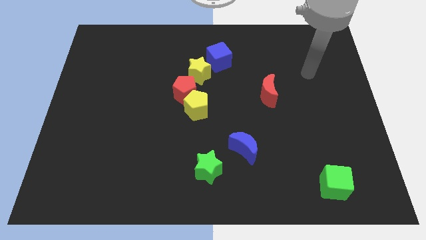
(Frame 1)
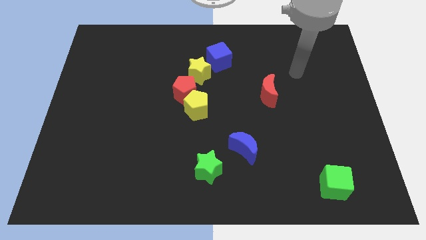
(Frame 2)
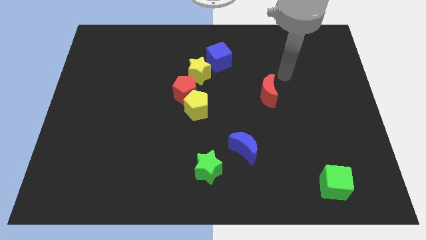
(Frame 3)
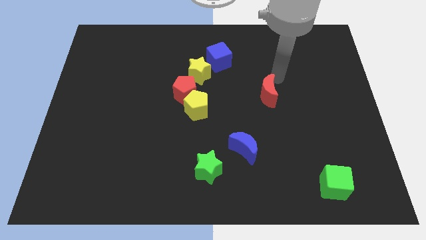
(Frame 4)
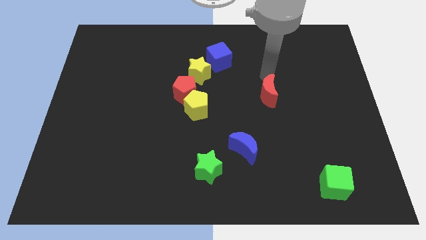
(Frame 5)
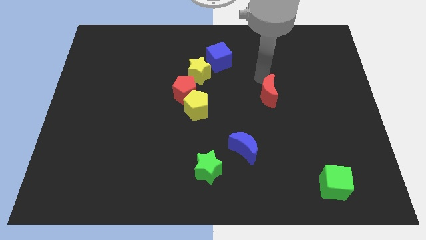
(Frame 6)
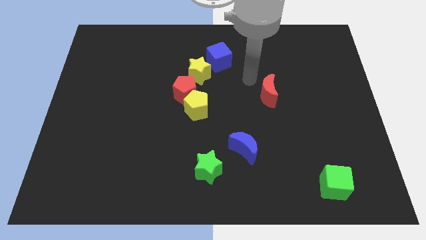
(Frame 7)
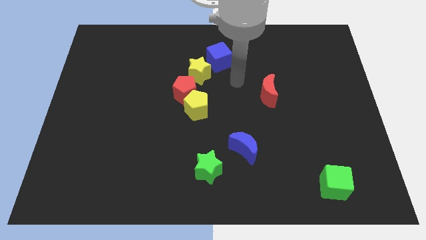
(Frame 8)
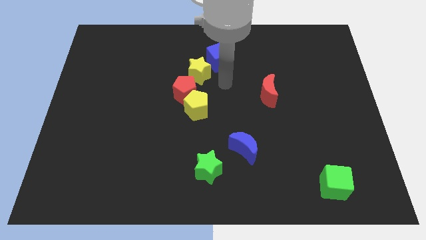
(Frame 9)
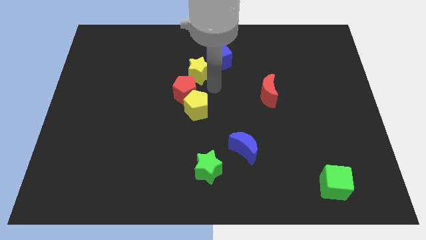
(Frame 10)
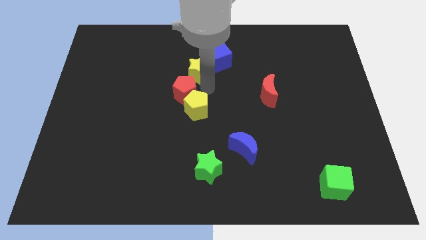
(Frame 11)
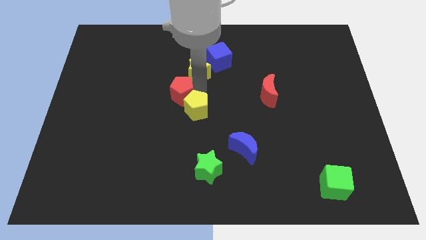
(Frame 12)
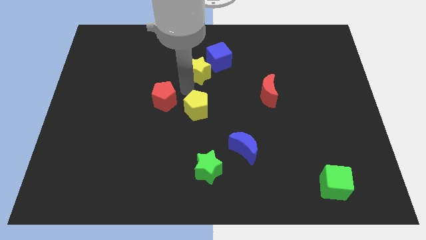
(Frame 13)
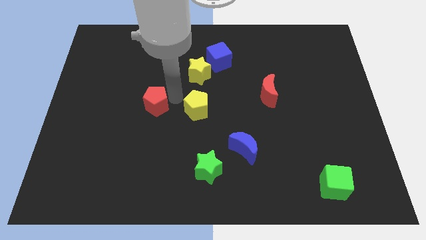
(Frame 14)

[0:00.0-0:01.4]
separate the yellow pentagon from the red pentagon

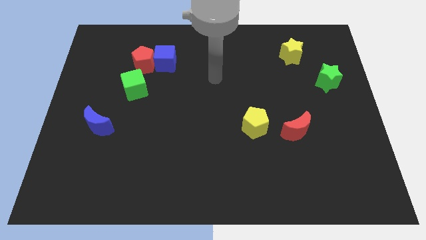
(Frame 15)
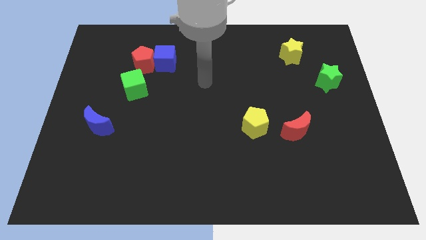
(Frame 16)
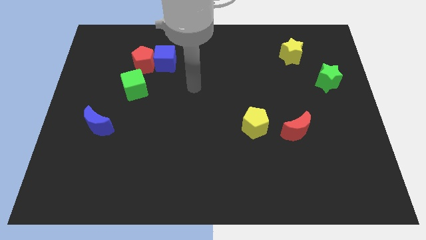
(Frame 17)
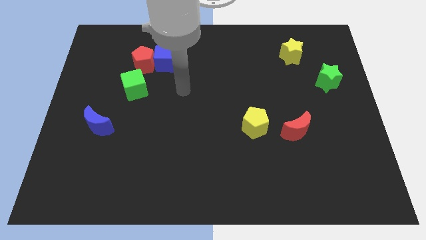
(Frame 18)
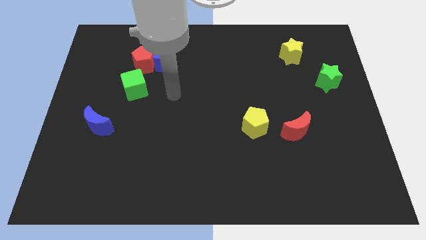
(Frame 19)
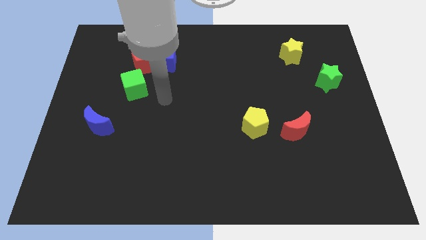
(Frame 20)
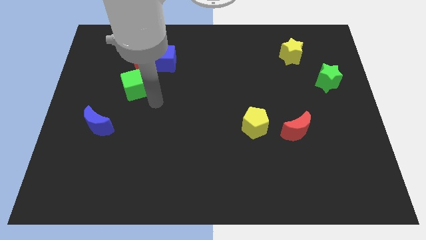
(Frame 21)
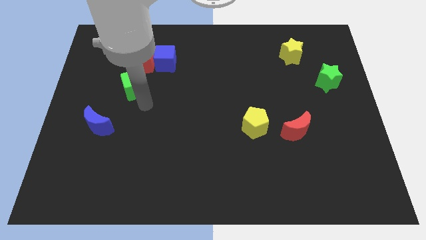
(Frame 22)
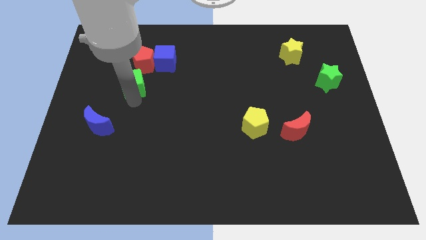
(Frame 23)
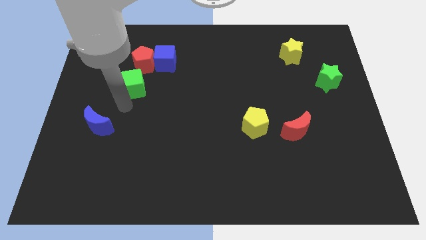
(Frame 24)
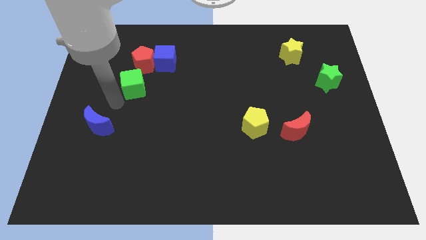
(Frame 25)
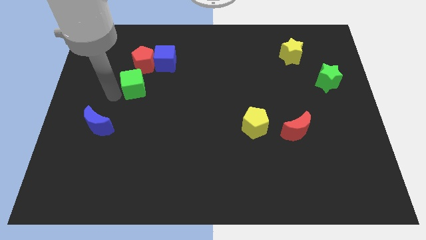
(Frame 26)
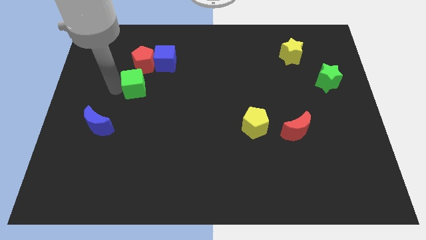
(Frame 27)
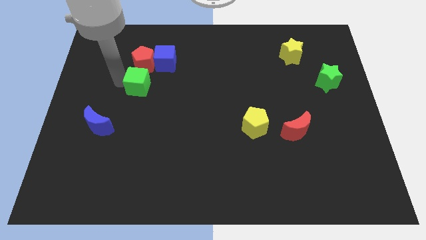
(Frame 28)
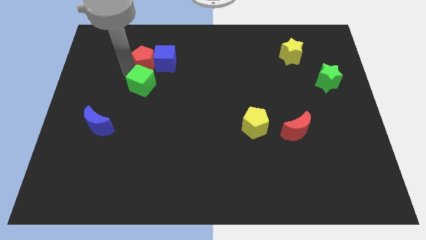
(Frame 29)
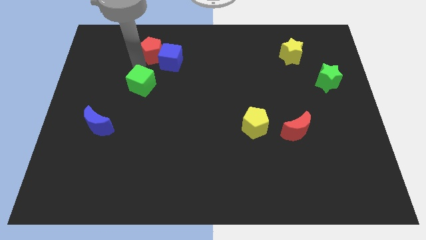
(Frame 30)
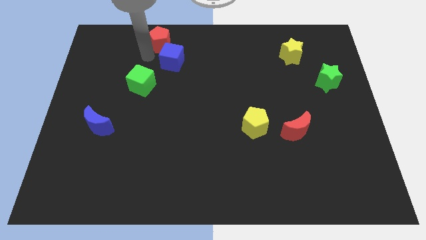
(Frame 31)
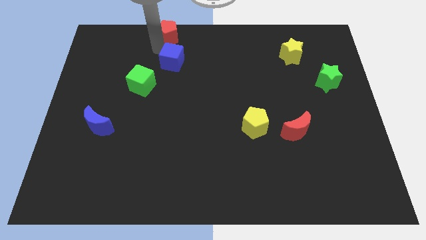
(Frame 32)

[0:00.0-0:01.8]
move the blue cube away from the red pentagon

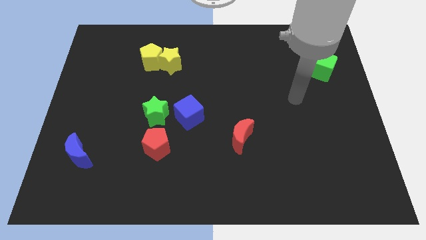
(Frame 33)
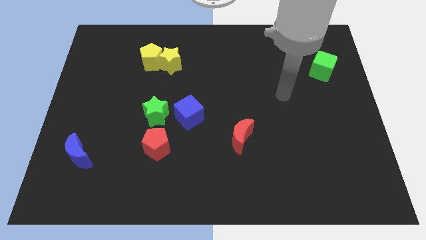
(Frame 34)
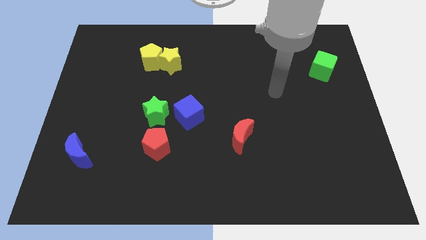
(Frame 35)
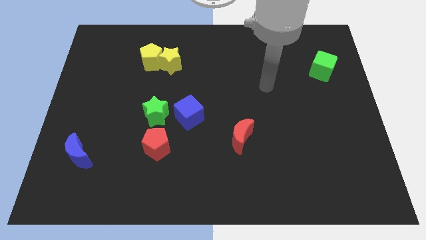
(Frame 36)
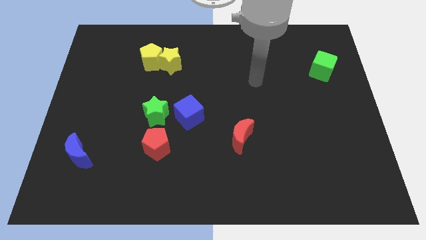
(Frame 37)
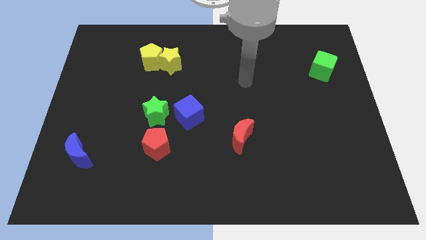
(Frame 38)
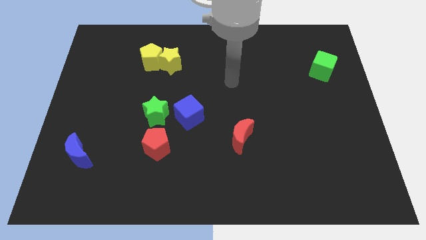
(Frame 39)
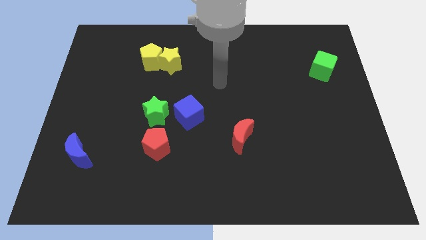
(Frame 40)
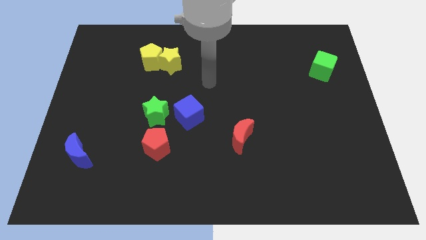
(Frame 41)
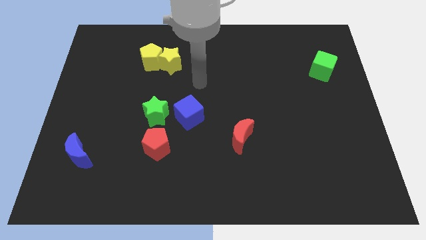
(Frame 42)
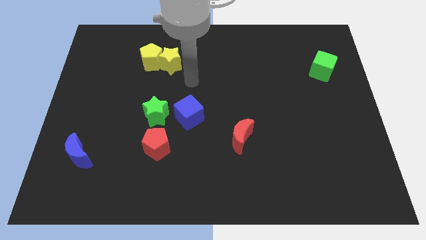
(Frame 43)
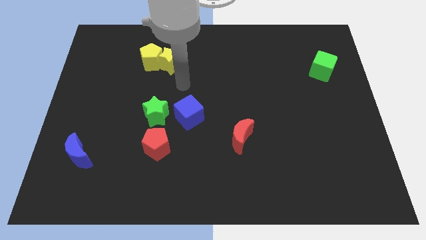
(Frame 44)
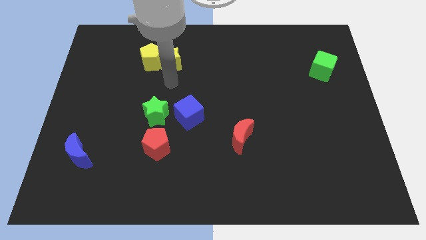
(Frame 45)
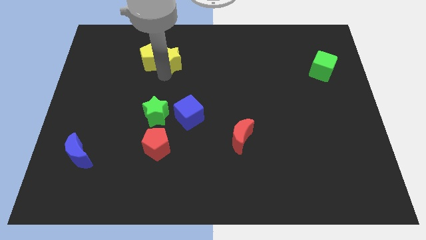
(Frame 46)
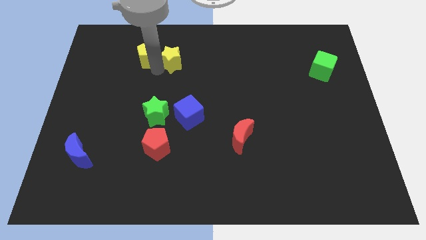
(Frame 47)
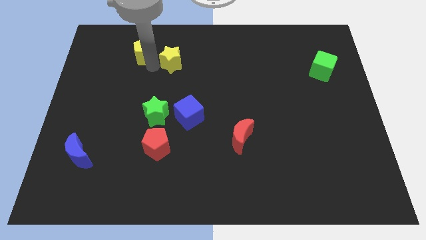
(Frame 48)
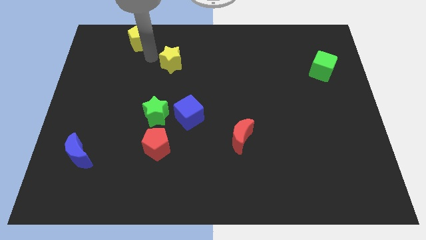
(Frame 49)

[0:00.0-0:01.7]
separate the yellow star from the yellow pentagon

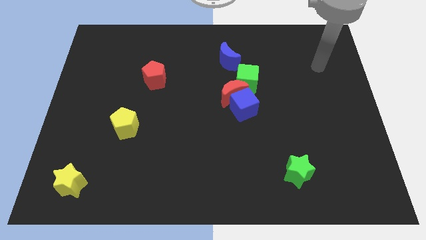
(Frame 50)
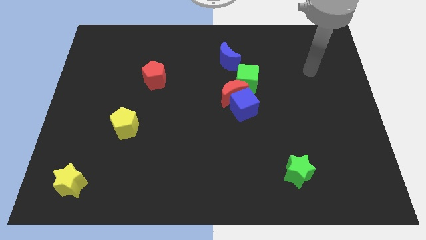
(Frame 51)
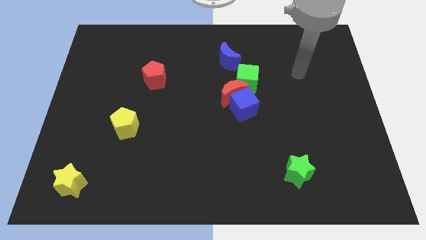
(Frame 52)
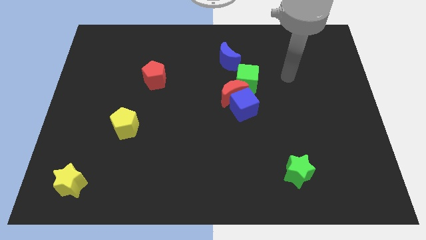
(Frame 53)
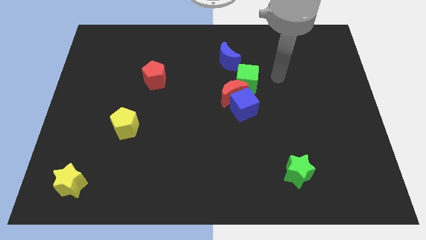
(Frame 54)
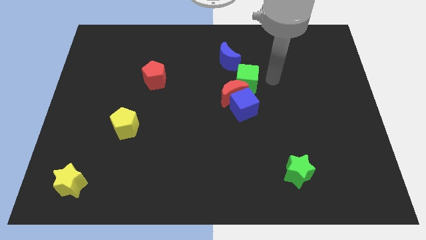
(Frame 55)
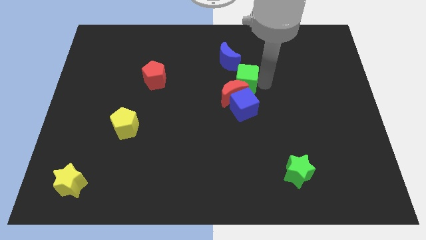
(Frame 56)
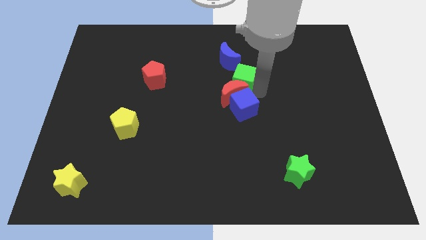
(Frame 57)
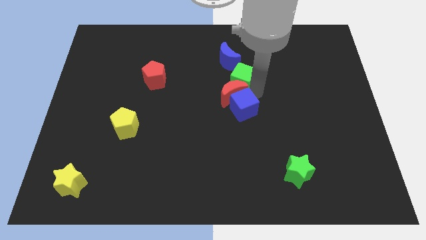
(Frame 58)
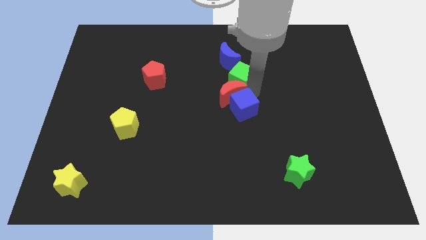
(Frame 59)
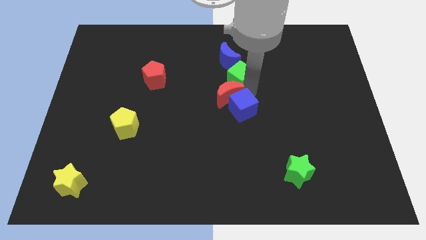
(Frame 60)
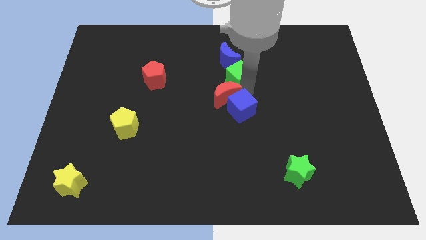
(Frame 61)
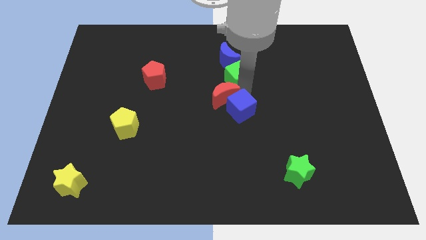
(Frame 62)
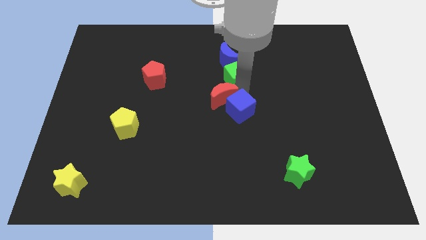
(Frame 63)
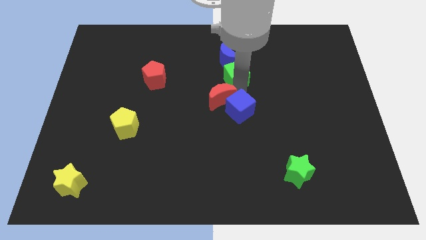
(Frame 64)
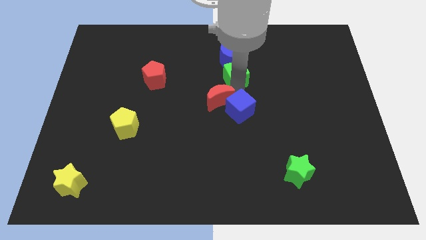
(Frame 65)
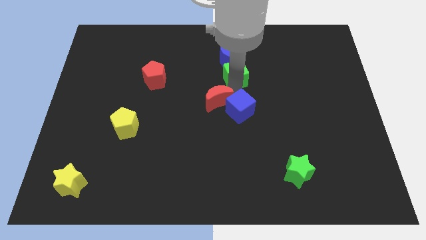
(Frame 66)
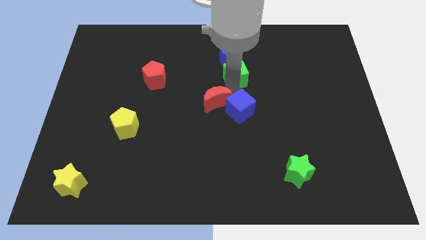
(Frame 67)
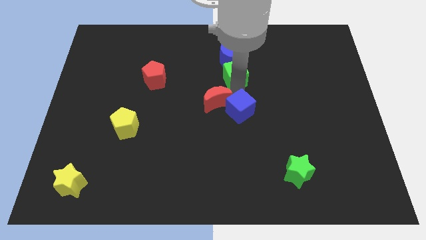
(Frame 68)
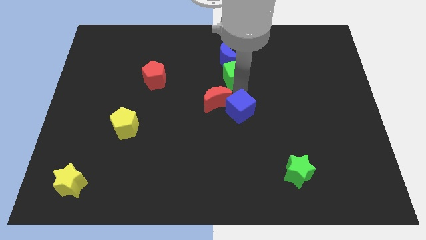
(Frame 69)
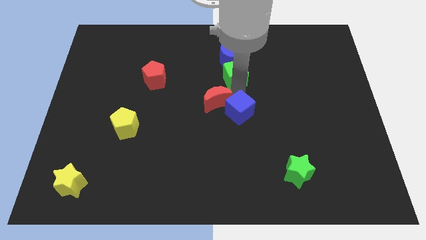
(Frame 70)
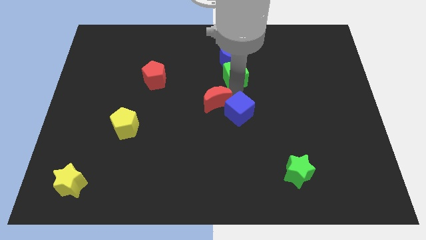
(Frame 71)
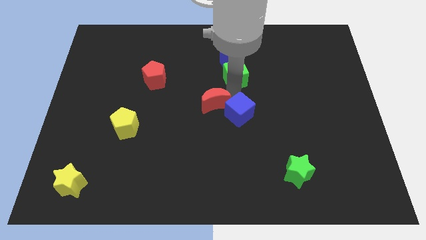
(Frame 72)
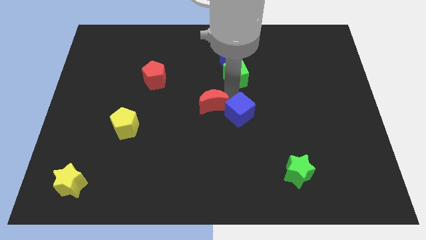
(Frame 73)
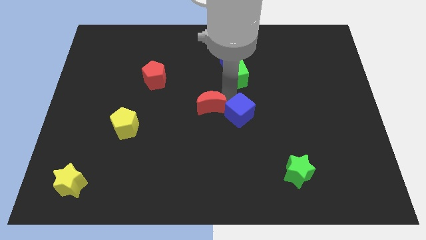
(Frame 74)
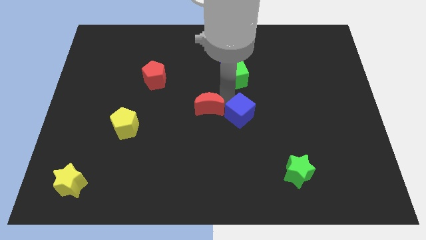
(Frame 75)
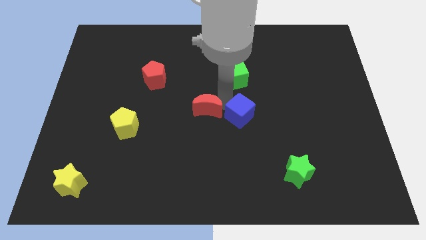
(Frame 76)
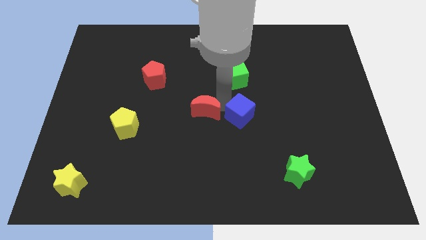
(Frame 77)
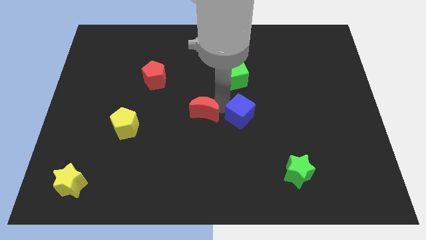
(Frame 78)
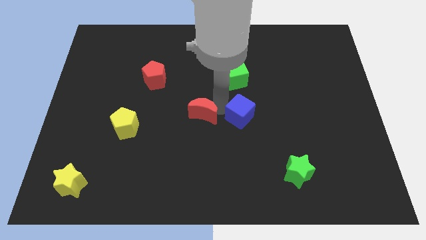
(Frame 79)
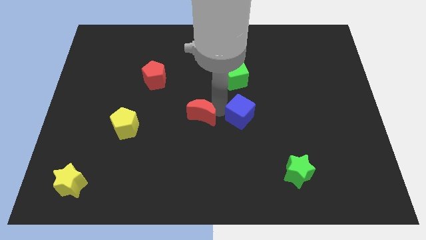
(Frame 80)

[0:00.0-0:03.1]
pull the red moon apart from the blue cube and green cube

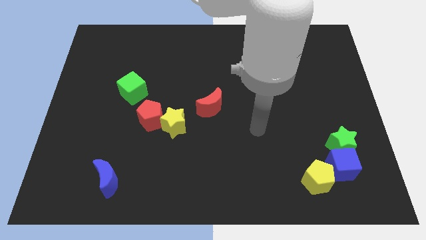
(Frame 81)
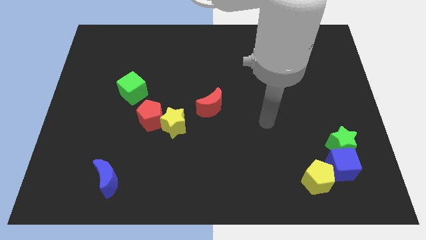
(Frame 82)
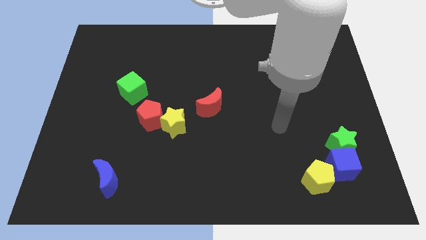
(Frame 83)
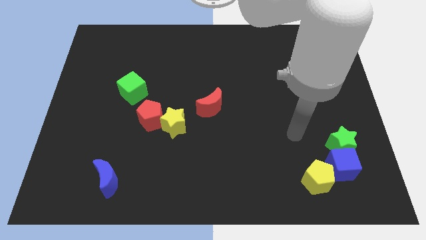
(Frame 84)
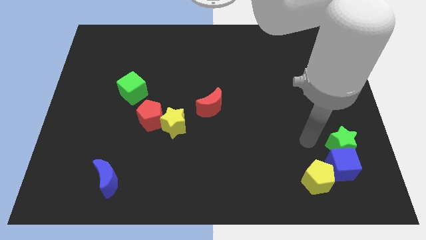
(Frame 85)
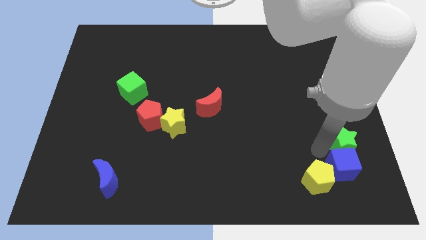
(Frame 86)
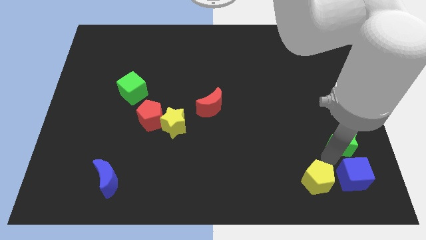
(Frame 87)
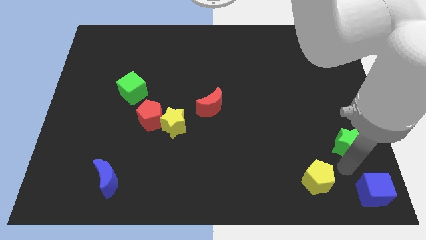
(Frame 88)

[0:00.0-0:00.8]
move the green star away from the blue cube

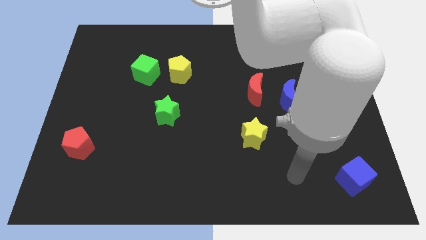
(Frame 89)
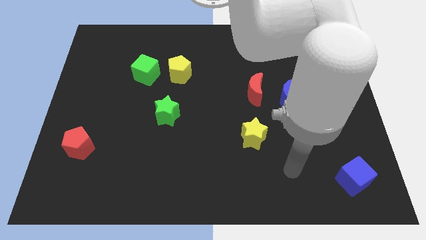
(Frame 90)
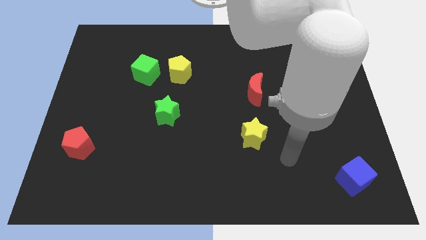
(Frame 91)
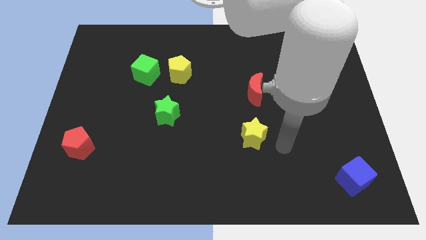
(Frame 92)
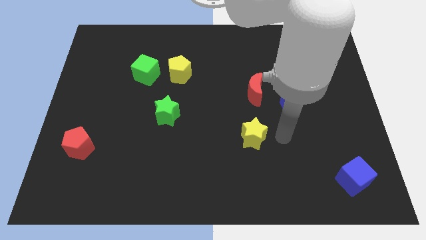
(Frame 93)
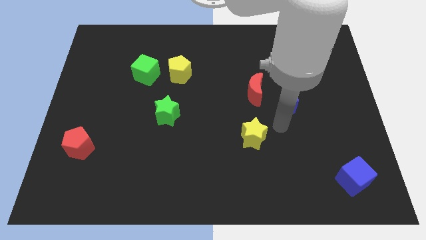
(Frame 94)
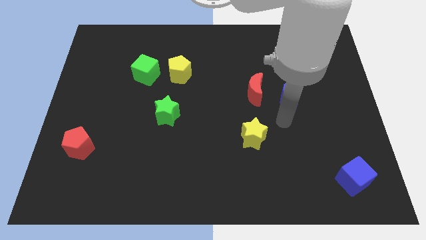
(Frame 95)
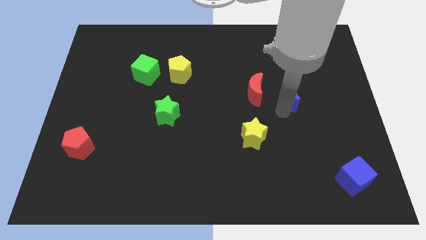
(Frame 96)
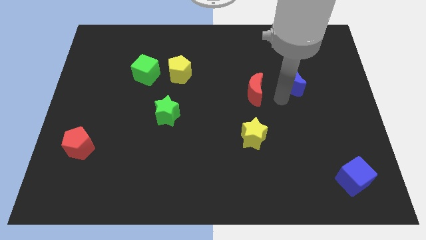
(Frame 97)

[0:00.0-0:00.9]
separate the red moon from the blue moon
